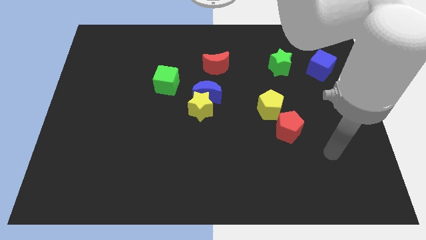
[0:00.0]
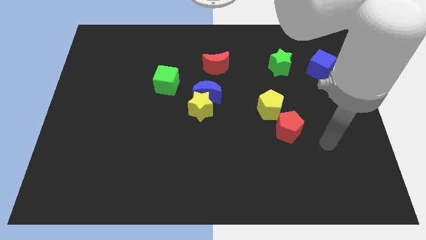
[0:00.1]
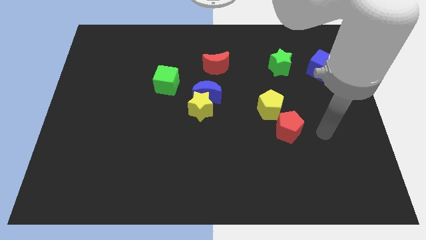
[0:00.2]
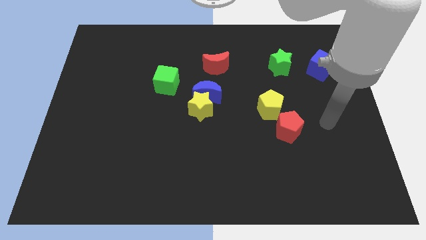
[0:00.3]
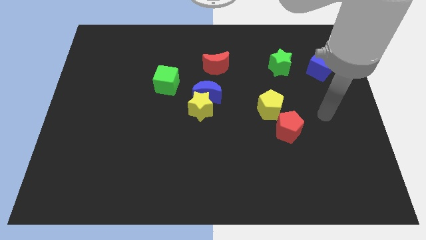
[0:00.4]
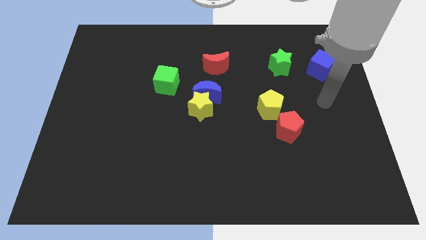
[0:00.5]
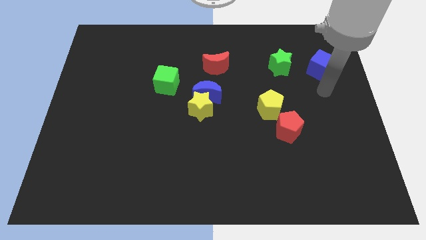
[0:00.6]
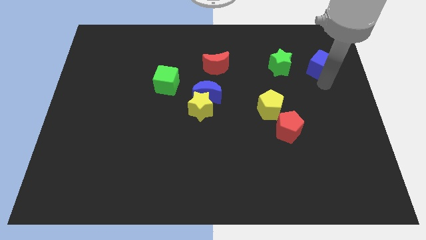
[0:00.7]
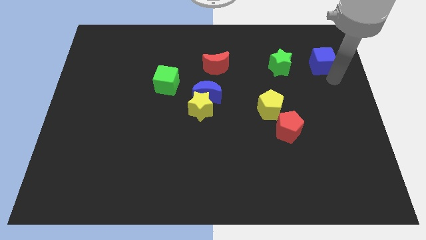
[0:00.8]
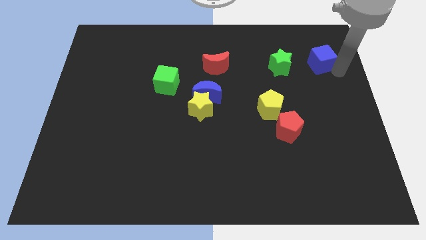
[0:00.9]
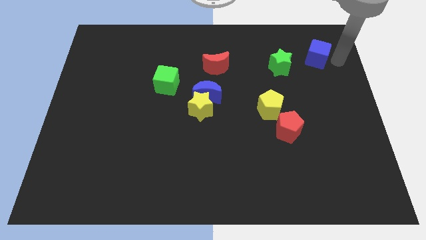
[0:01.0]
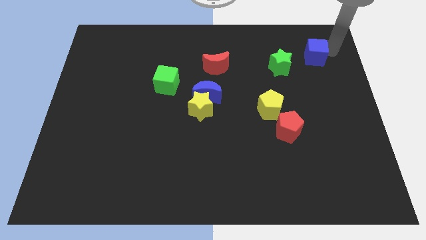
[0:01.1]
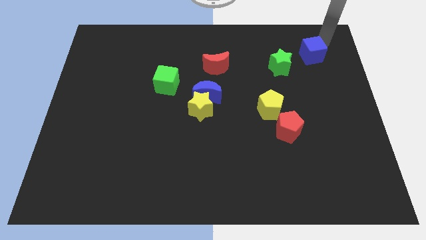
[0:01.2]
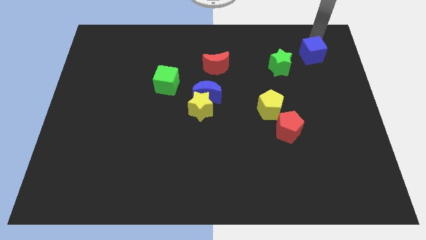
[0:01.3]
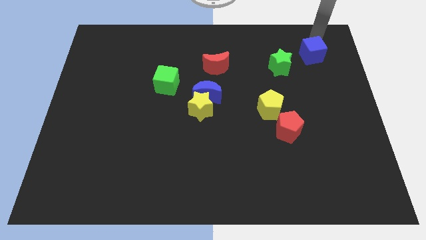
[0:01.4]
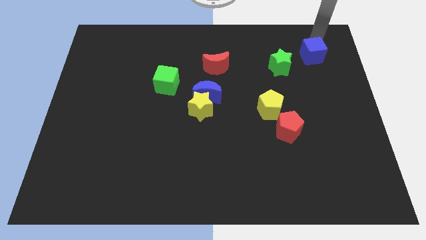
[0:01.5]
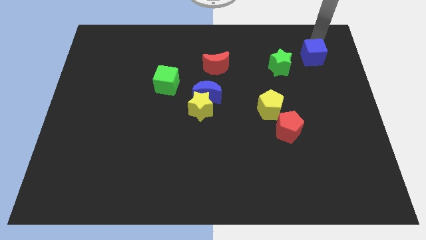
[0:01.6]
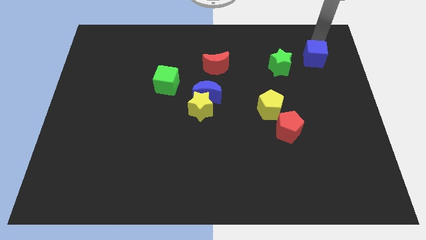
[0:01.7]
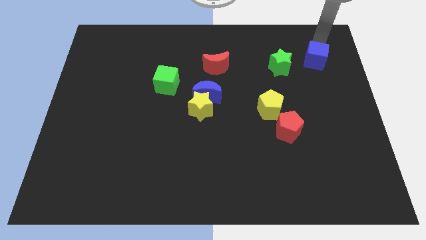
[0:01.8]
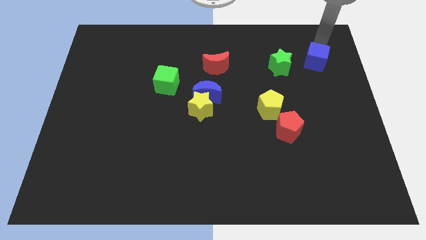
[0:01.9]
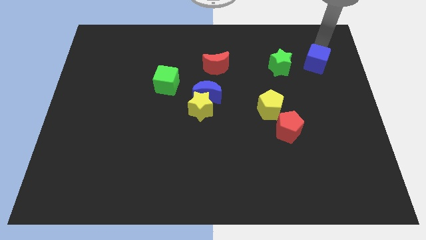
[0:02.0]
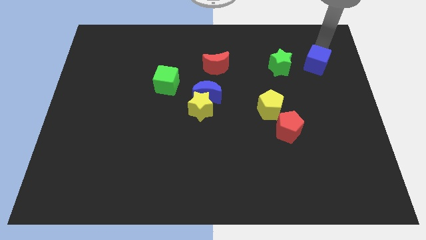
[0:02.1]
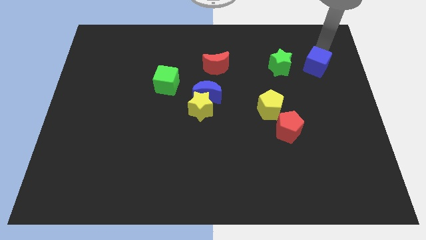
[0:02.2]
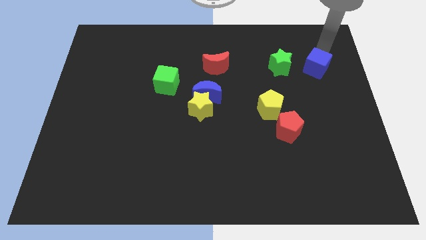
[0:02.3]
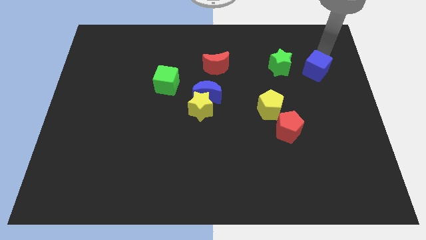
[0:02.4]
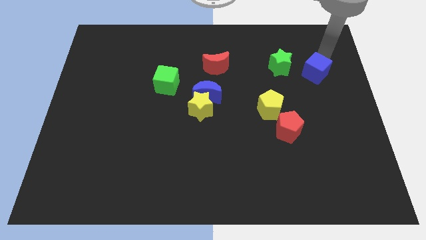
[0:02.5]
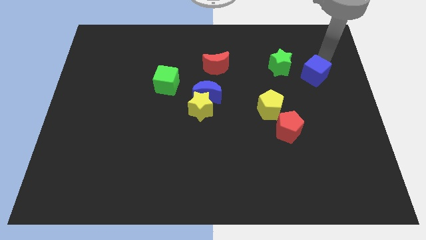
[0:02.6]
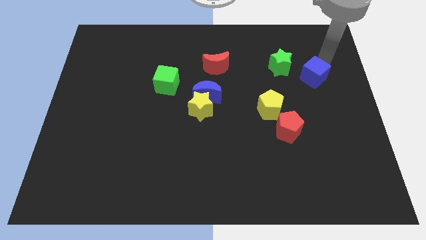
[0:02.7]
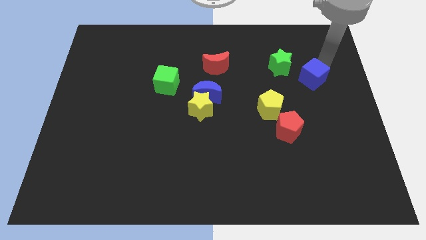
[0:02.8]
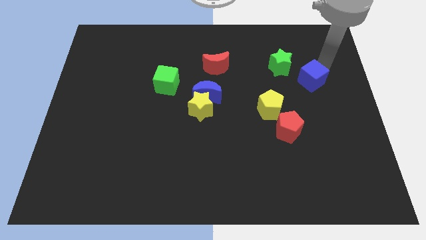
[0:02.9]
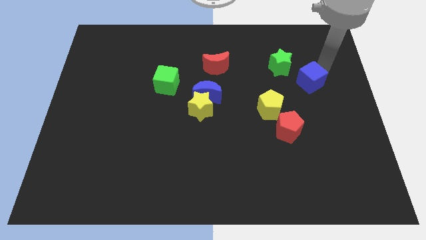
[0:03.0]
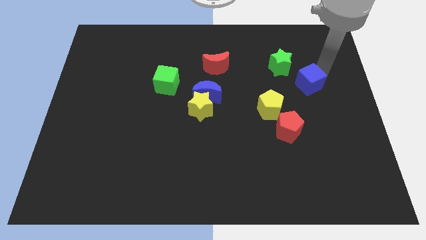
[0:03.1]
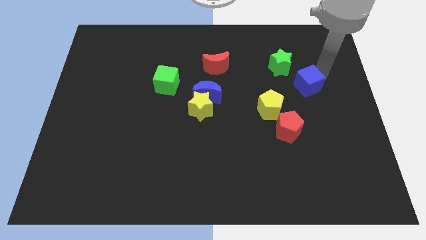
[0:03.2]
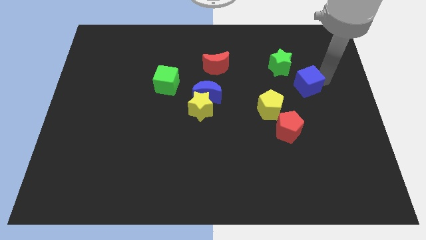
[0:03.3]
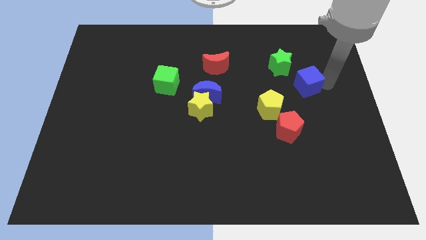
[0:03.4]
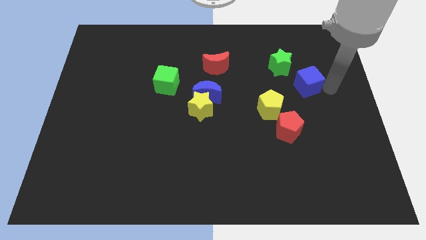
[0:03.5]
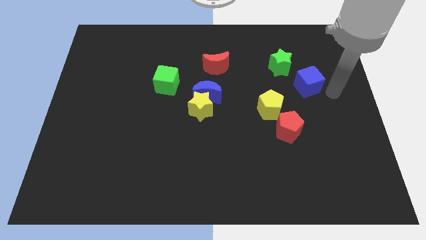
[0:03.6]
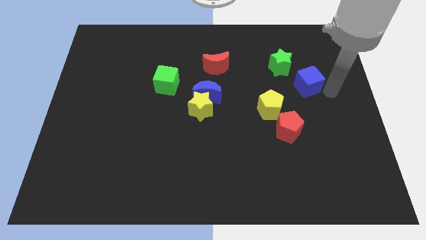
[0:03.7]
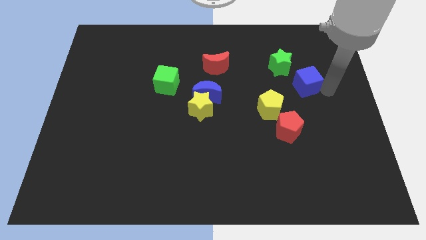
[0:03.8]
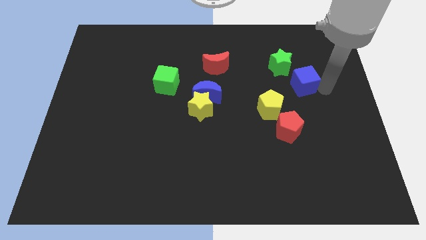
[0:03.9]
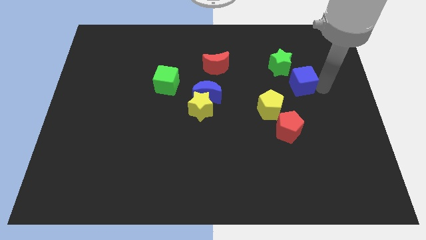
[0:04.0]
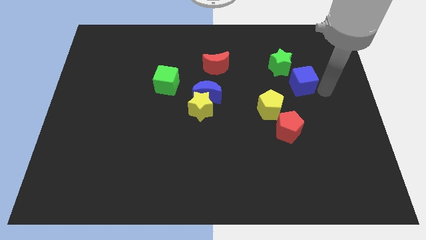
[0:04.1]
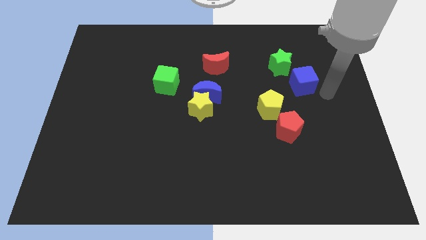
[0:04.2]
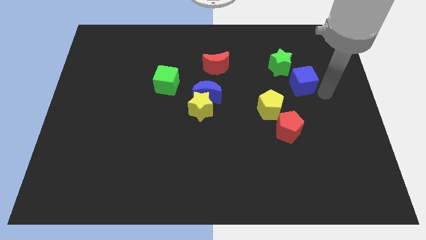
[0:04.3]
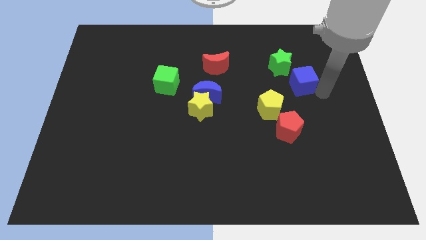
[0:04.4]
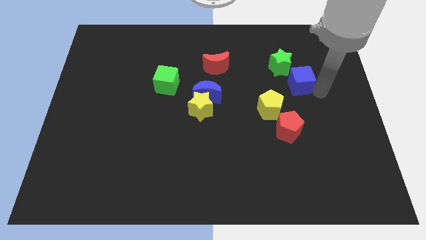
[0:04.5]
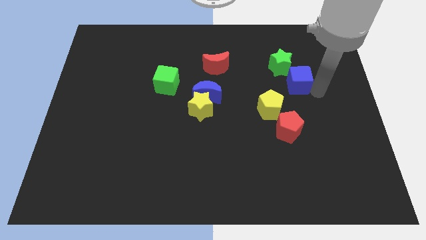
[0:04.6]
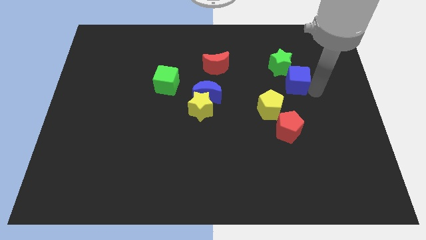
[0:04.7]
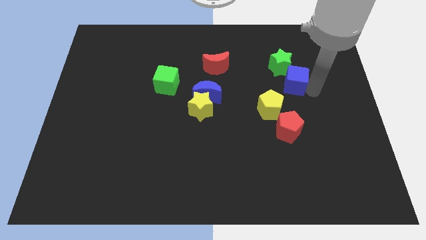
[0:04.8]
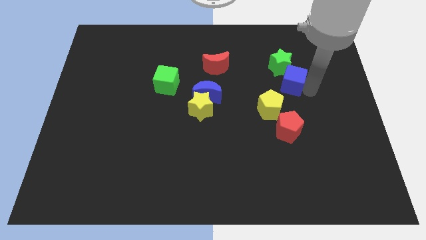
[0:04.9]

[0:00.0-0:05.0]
slightly slide the blue cube left

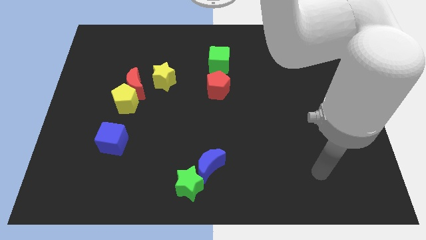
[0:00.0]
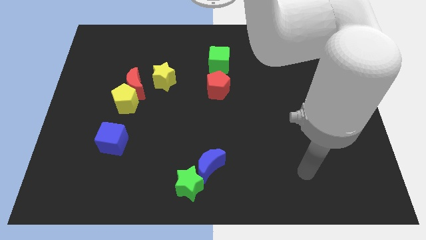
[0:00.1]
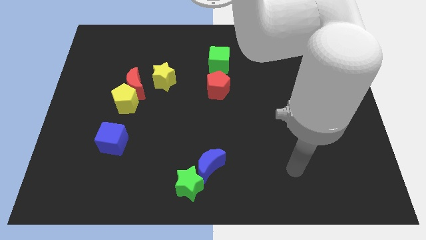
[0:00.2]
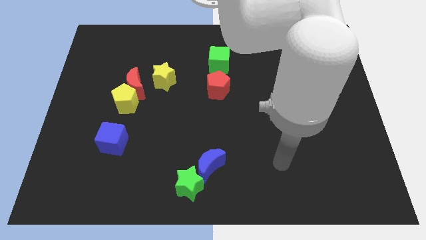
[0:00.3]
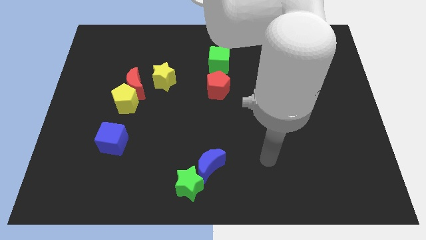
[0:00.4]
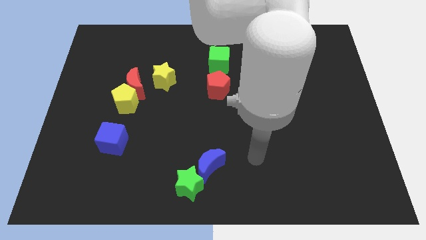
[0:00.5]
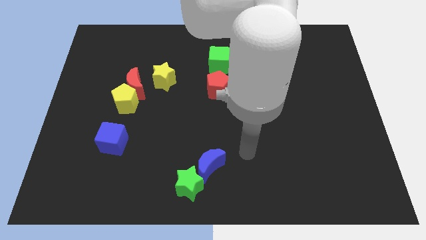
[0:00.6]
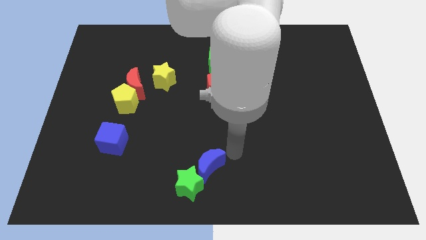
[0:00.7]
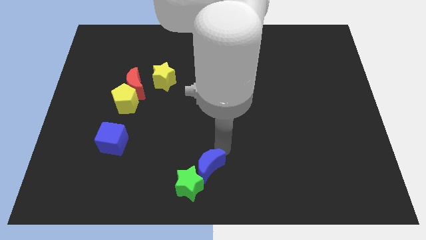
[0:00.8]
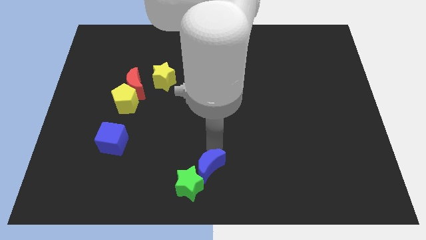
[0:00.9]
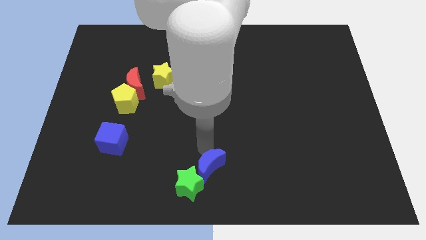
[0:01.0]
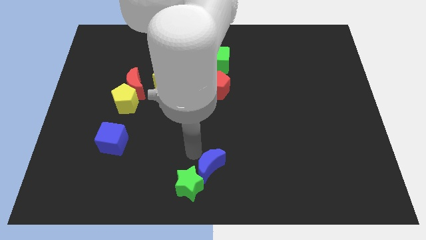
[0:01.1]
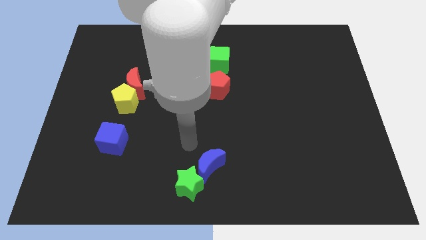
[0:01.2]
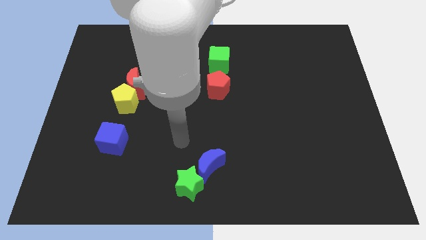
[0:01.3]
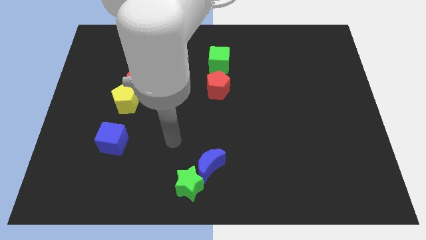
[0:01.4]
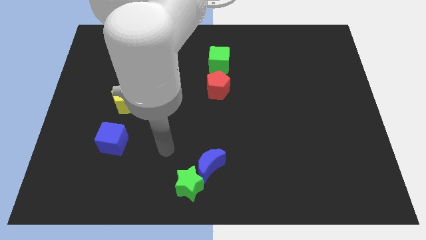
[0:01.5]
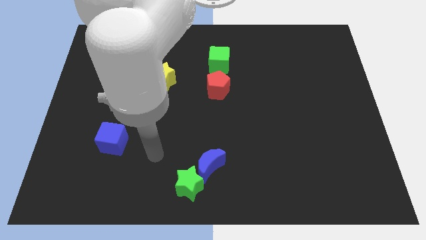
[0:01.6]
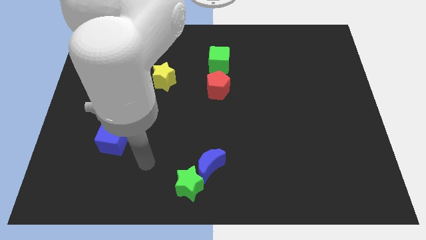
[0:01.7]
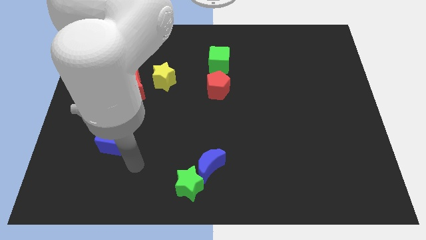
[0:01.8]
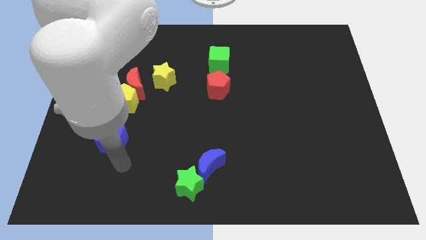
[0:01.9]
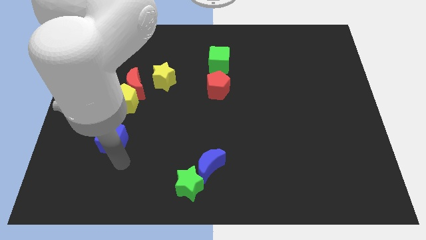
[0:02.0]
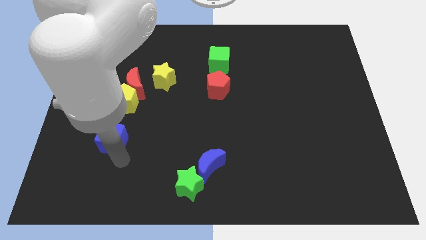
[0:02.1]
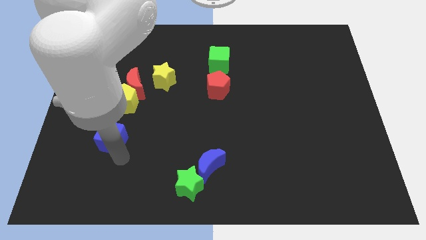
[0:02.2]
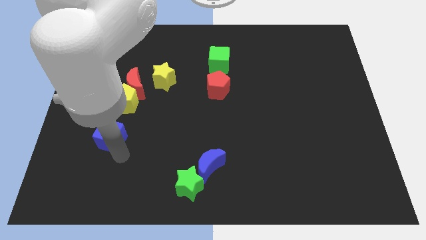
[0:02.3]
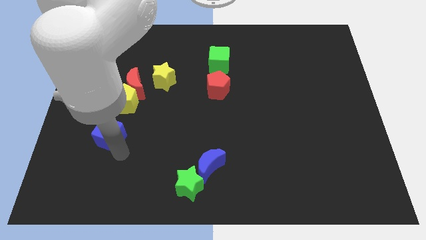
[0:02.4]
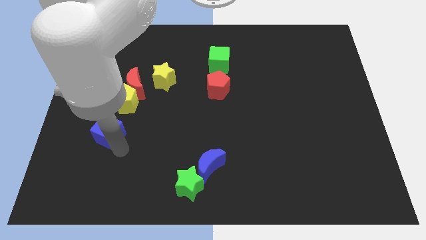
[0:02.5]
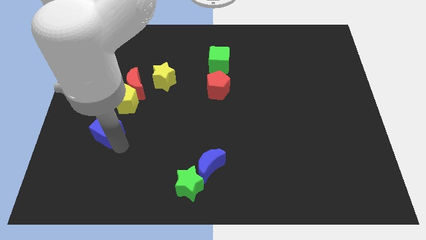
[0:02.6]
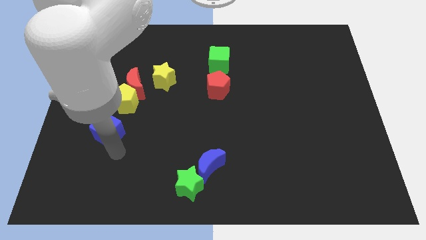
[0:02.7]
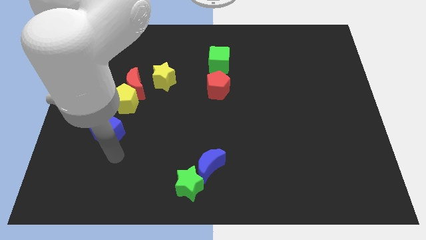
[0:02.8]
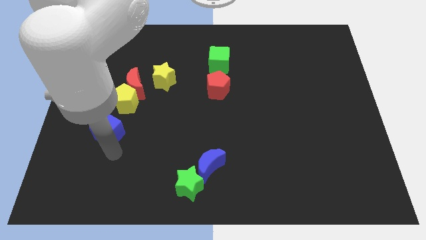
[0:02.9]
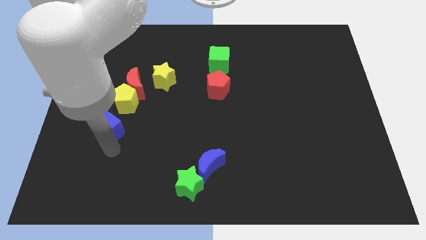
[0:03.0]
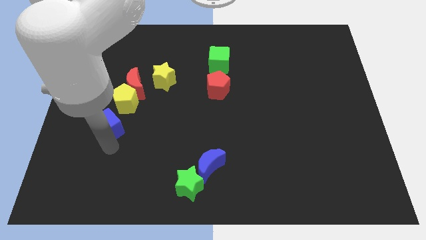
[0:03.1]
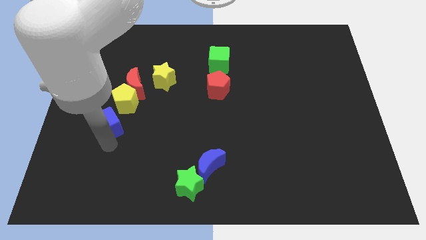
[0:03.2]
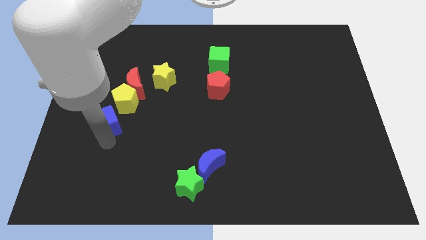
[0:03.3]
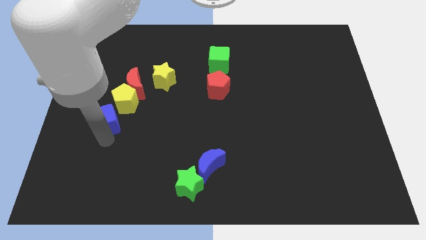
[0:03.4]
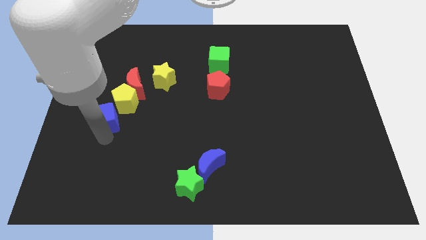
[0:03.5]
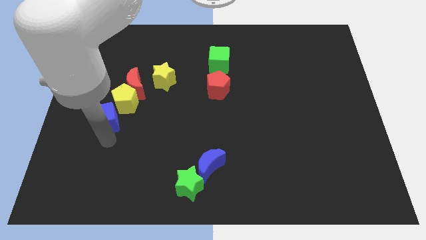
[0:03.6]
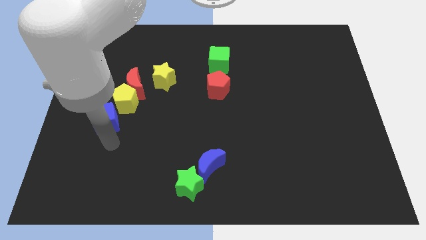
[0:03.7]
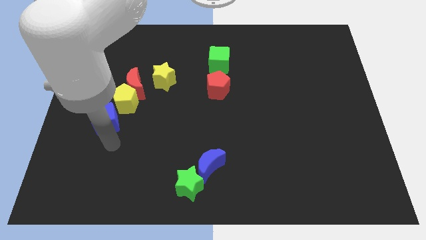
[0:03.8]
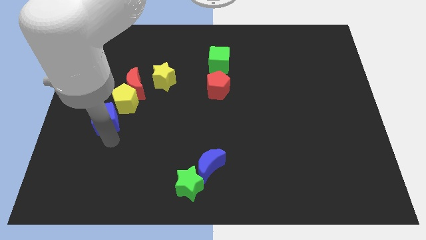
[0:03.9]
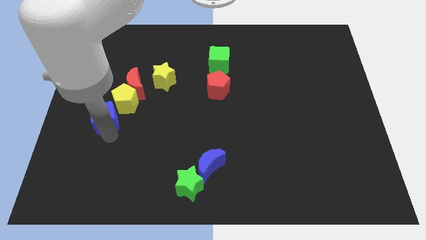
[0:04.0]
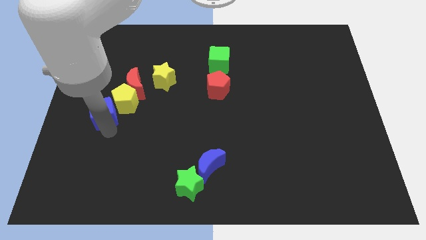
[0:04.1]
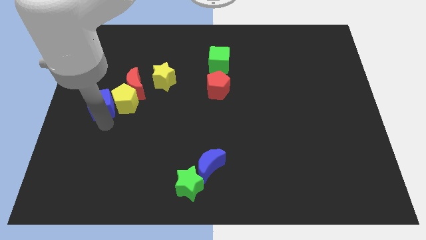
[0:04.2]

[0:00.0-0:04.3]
slightly slide the blue cube up
